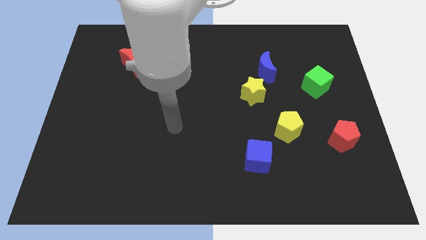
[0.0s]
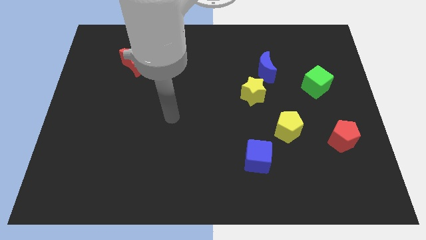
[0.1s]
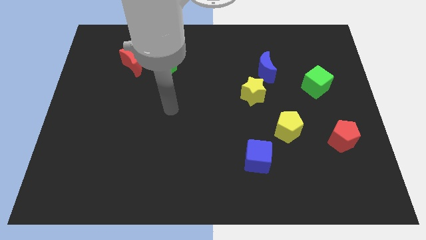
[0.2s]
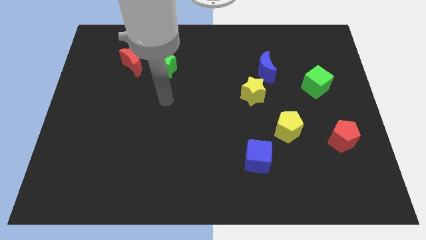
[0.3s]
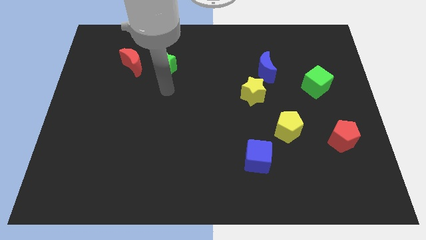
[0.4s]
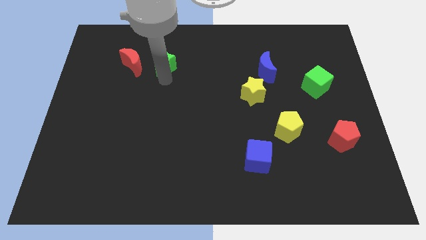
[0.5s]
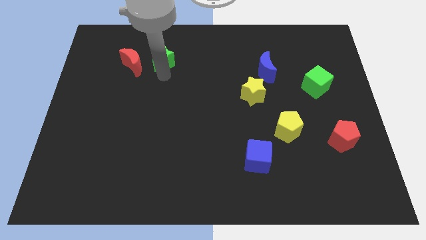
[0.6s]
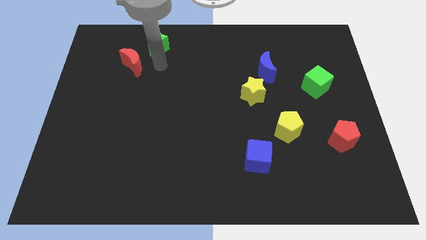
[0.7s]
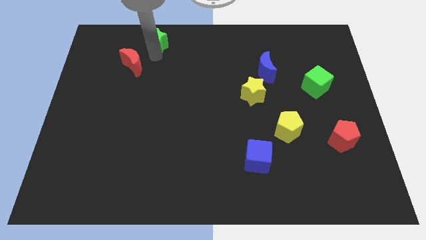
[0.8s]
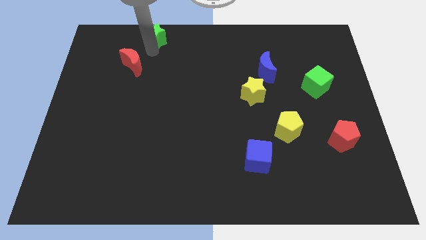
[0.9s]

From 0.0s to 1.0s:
separate the red moon from the green star

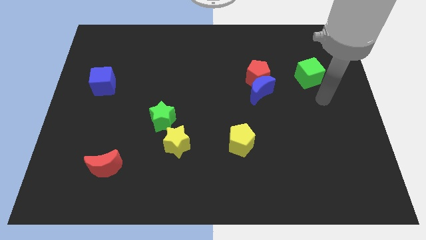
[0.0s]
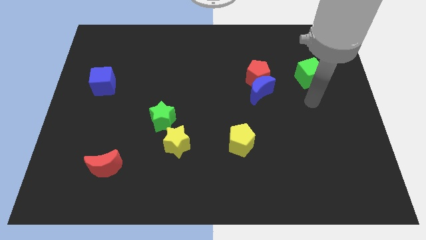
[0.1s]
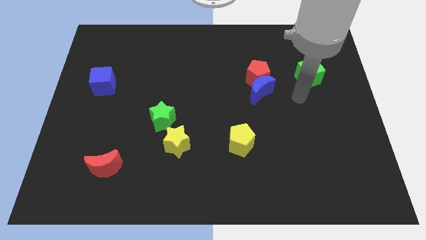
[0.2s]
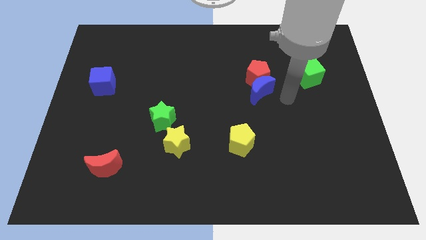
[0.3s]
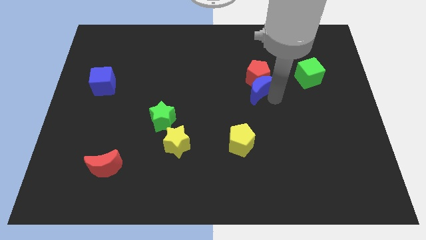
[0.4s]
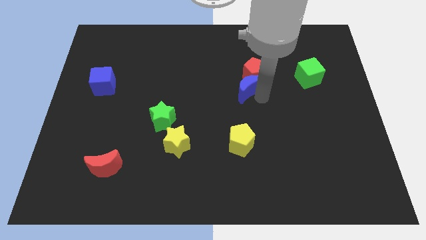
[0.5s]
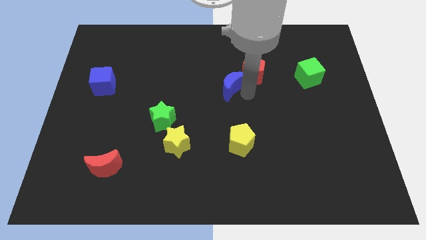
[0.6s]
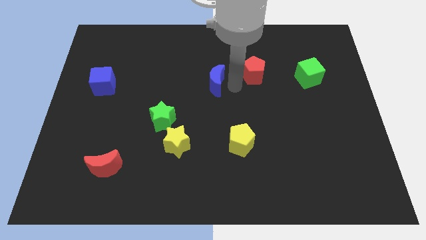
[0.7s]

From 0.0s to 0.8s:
separate the red pentagon from the blue moon

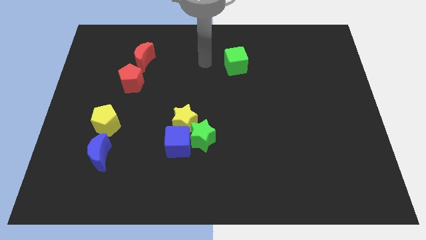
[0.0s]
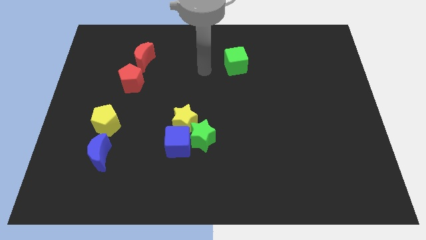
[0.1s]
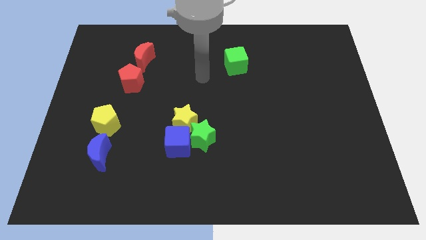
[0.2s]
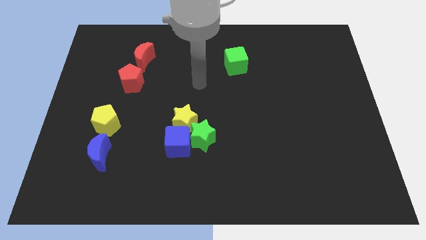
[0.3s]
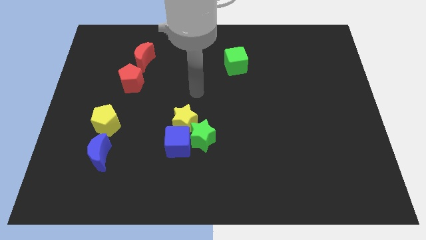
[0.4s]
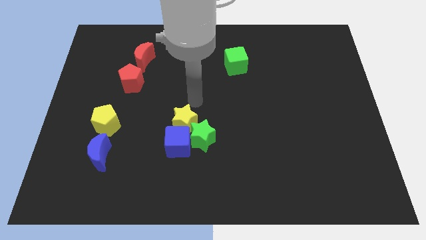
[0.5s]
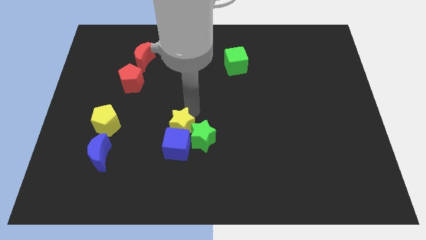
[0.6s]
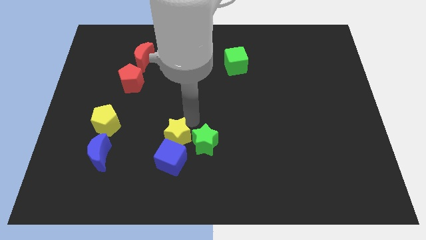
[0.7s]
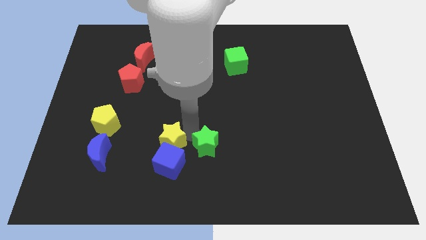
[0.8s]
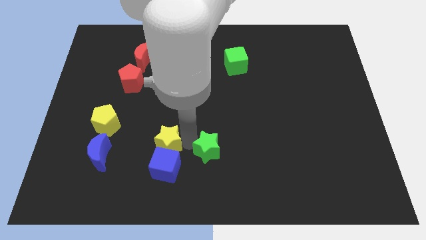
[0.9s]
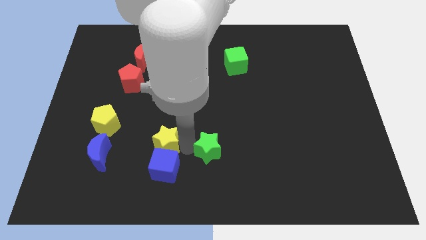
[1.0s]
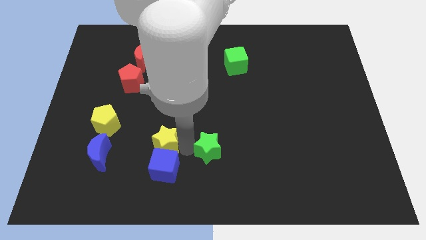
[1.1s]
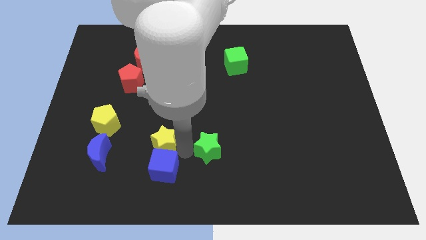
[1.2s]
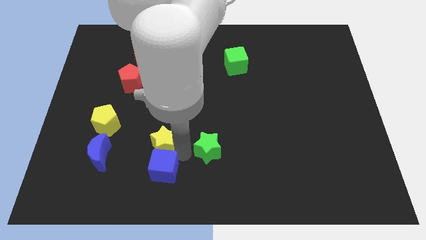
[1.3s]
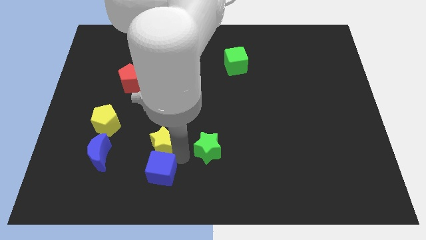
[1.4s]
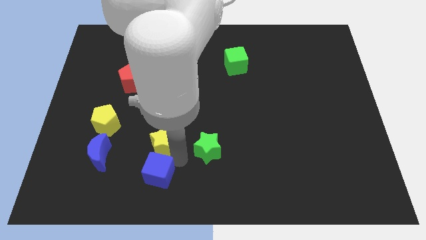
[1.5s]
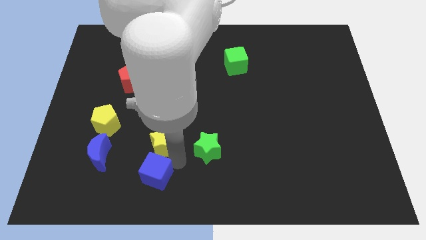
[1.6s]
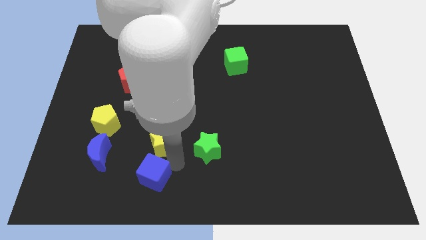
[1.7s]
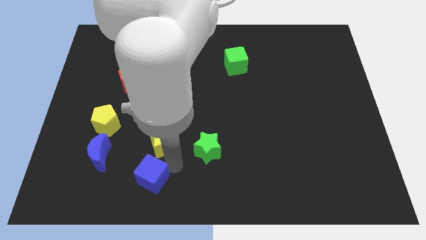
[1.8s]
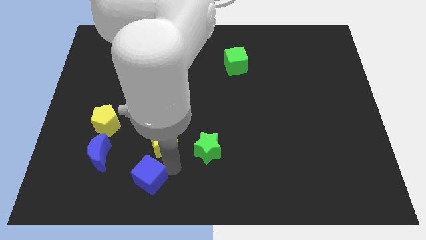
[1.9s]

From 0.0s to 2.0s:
move the blue cube away from the green star and yellow star

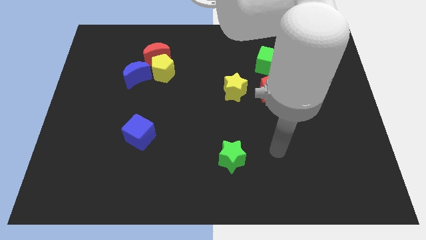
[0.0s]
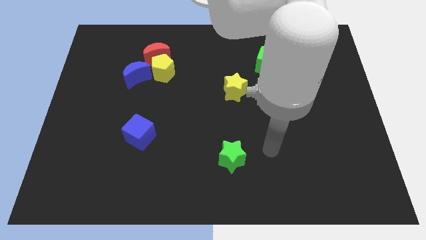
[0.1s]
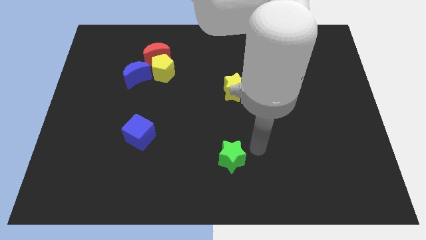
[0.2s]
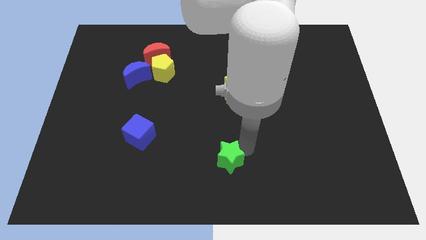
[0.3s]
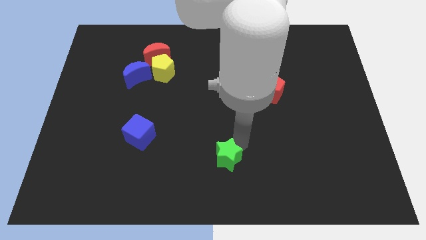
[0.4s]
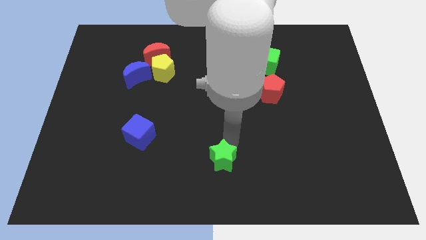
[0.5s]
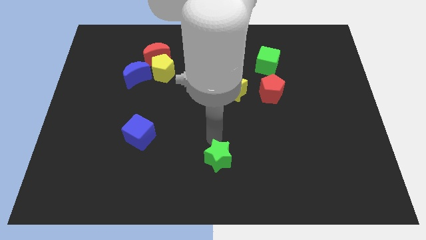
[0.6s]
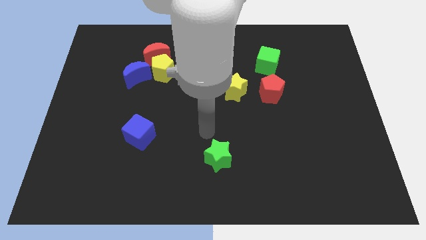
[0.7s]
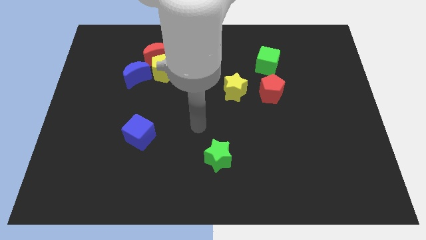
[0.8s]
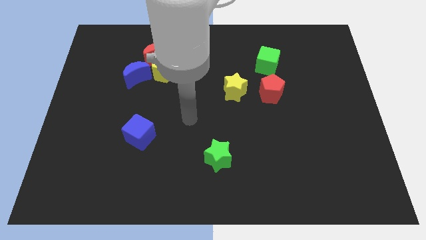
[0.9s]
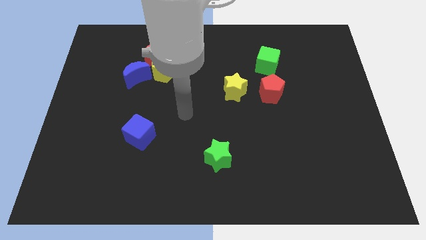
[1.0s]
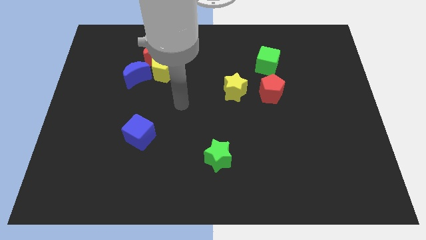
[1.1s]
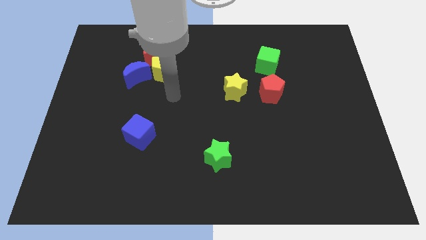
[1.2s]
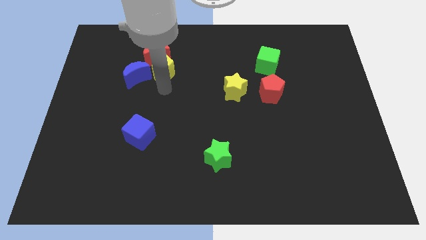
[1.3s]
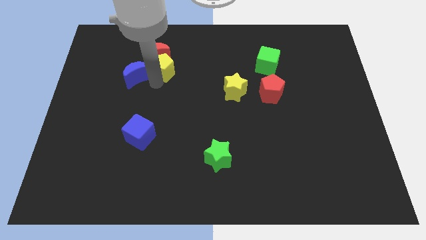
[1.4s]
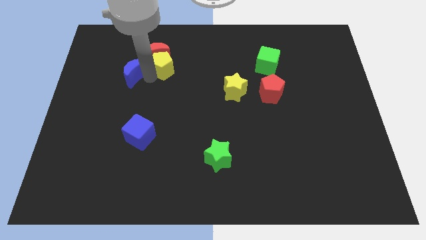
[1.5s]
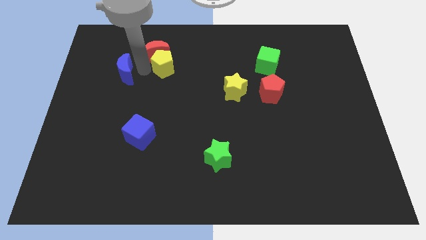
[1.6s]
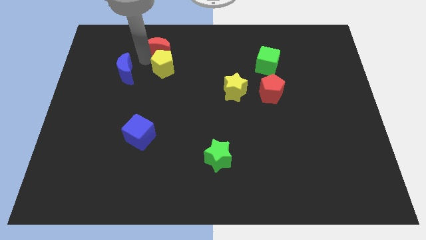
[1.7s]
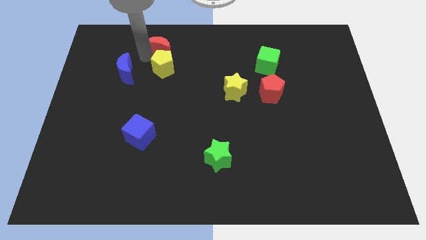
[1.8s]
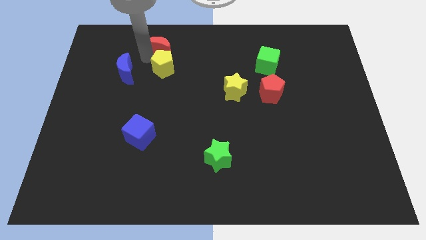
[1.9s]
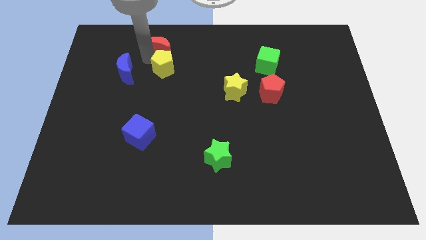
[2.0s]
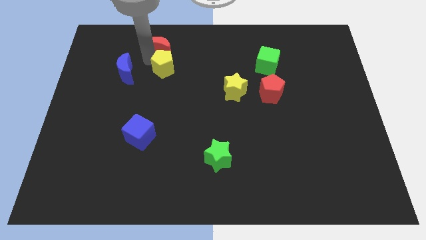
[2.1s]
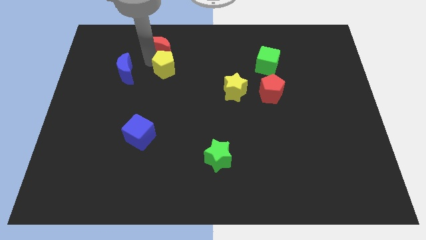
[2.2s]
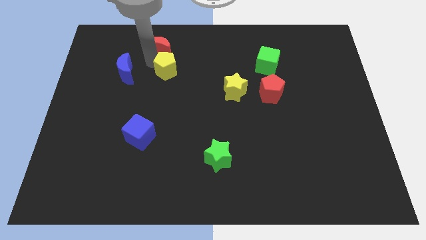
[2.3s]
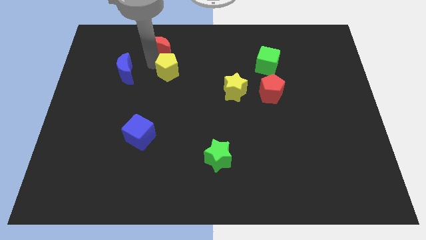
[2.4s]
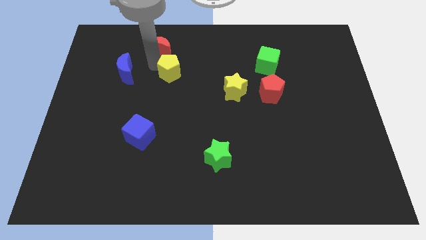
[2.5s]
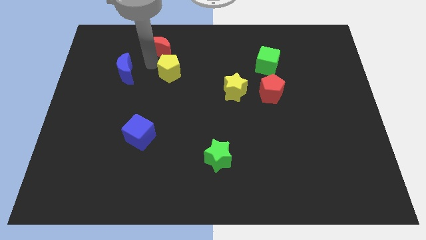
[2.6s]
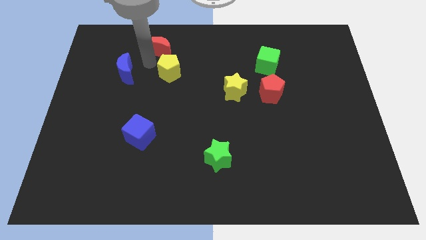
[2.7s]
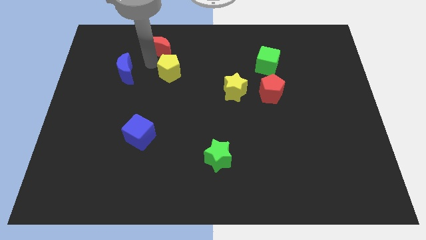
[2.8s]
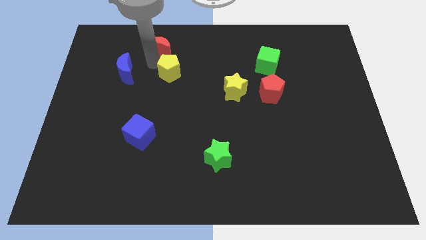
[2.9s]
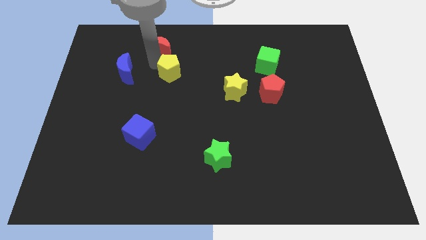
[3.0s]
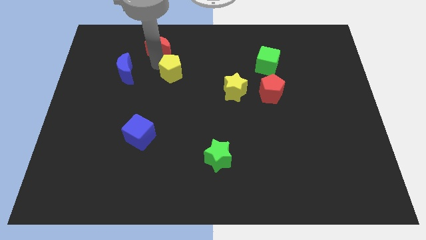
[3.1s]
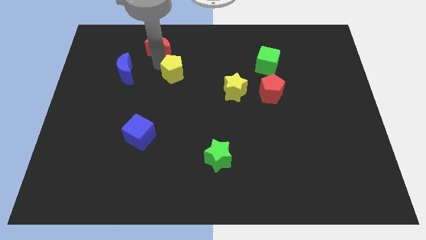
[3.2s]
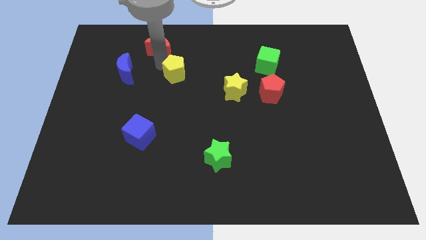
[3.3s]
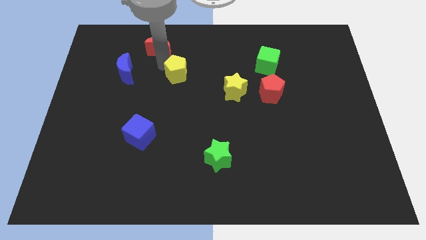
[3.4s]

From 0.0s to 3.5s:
separate the yellow pentagon from the red moon and blue moon

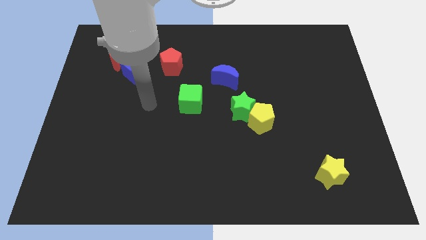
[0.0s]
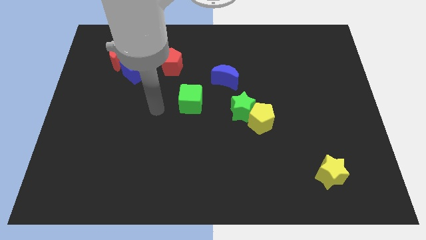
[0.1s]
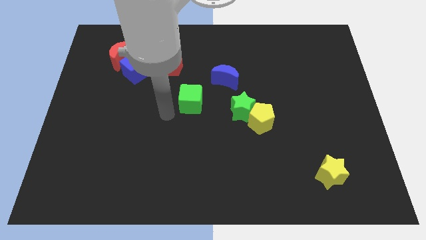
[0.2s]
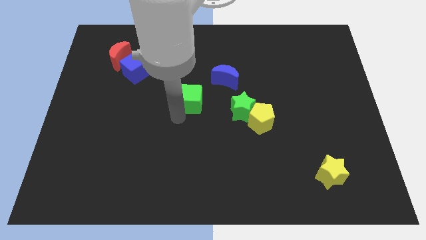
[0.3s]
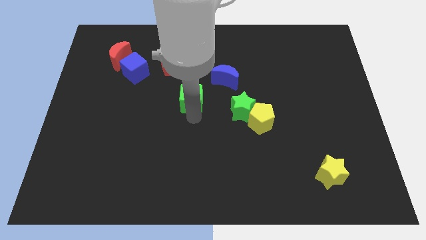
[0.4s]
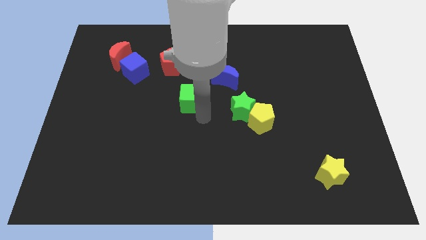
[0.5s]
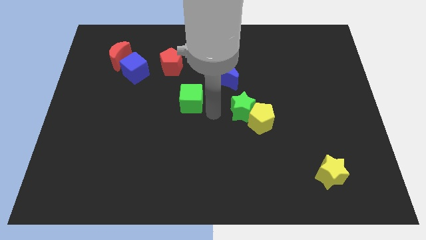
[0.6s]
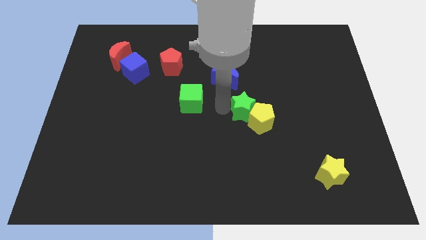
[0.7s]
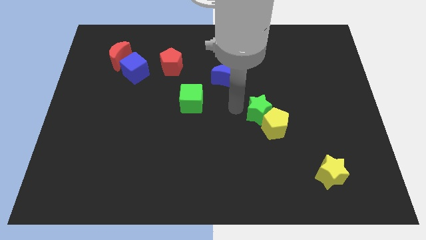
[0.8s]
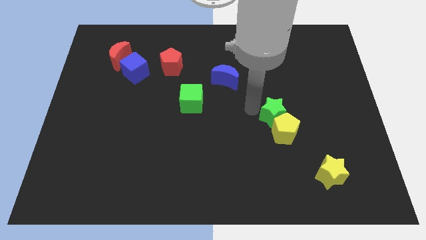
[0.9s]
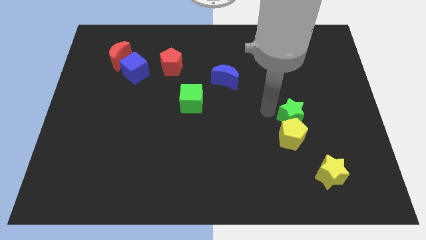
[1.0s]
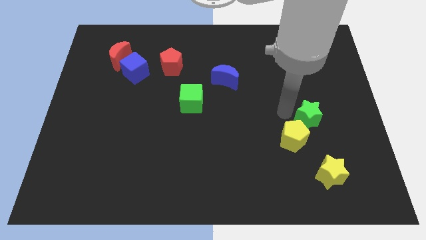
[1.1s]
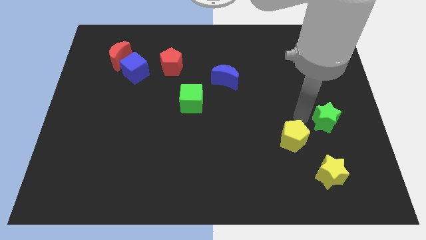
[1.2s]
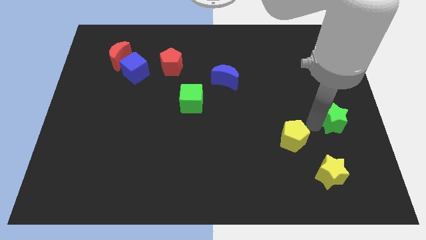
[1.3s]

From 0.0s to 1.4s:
move the yellow pentagon away from the green star

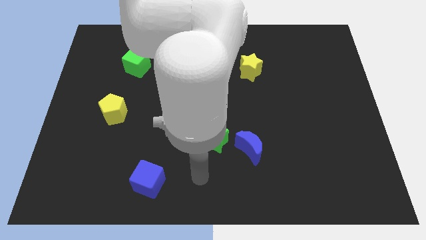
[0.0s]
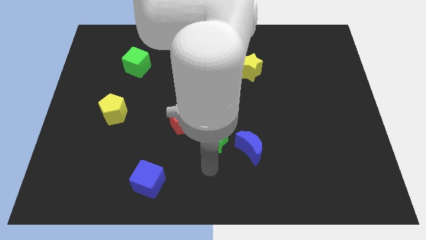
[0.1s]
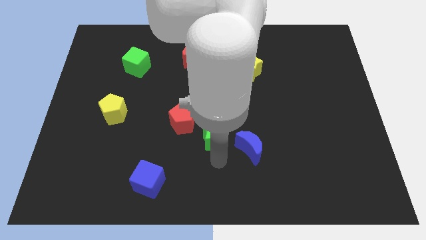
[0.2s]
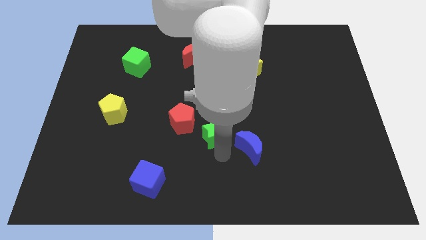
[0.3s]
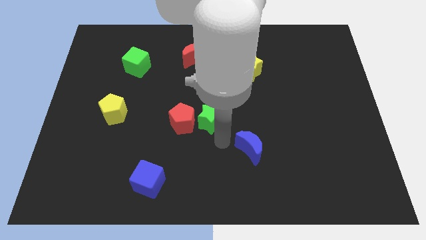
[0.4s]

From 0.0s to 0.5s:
move the blue moon away from the green star
